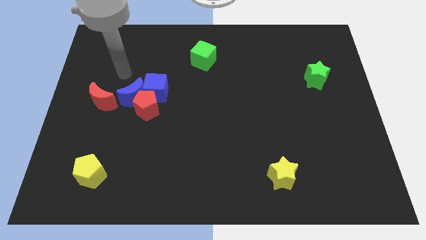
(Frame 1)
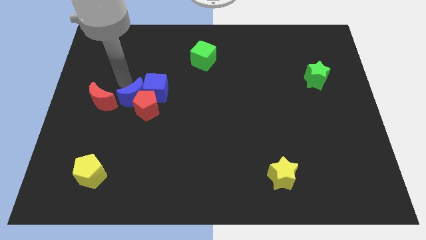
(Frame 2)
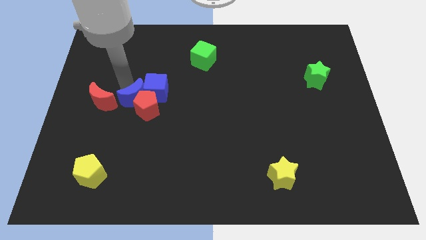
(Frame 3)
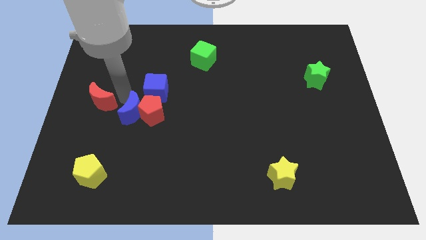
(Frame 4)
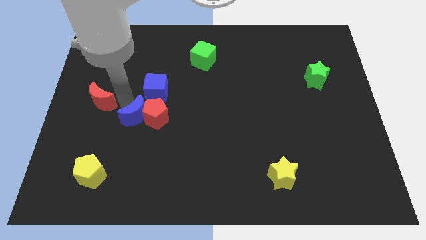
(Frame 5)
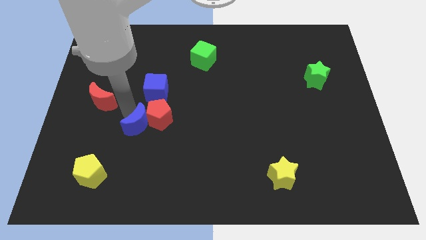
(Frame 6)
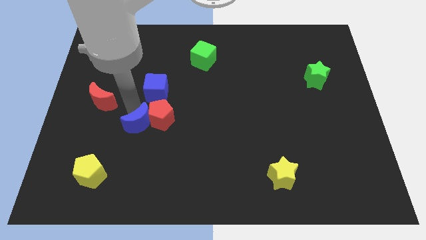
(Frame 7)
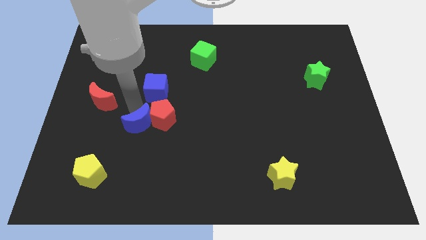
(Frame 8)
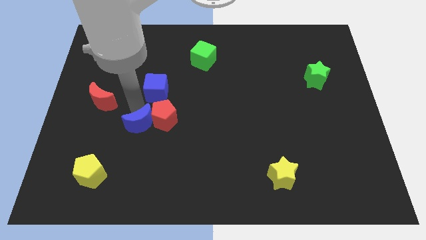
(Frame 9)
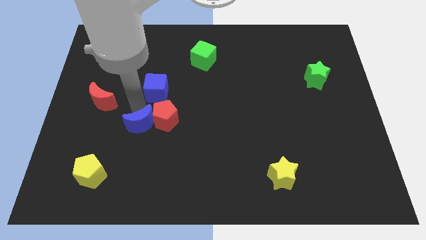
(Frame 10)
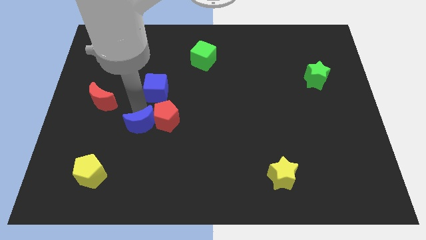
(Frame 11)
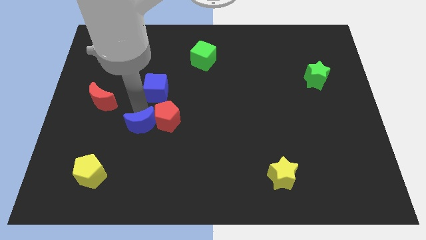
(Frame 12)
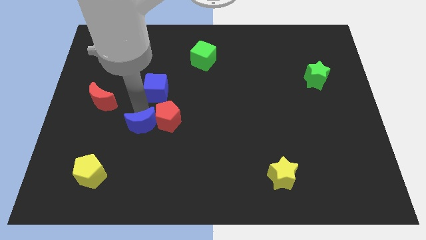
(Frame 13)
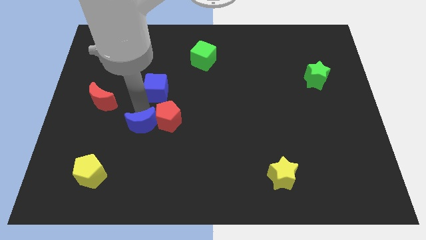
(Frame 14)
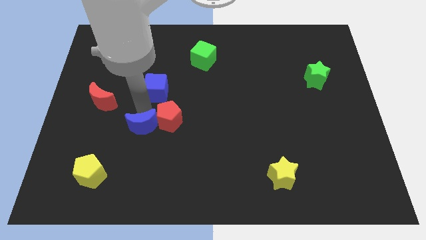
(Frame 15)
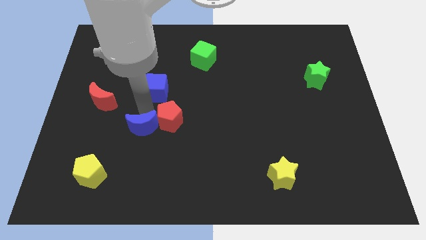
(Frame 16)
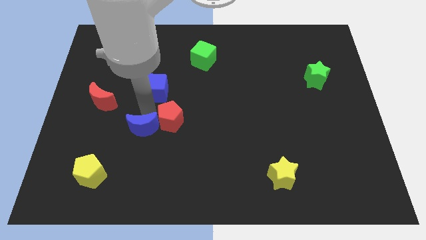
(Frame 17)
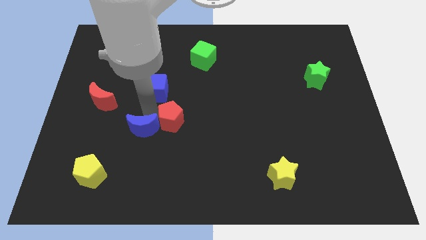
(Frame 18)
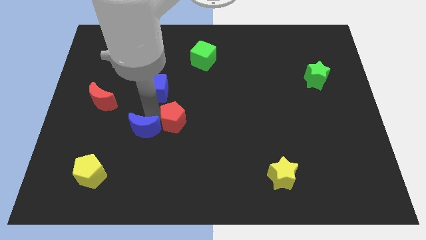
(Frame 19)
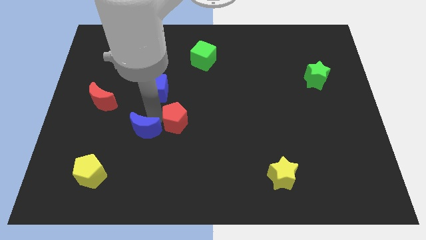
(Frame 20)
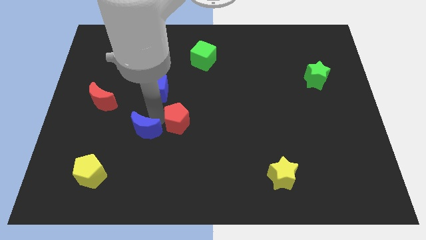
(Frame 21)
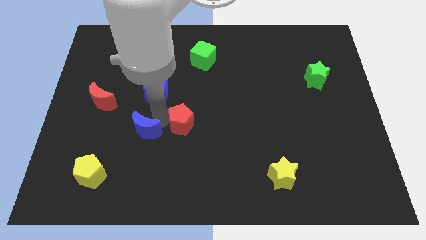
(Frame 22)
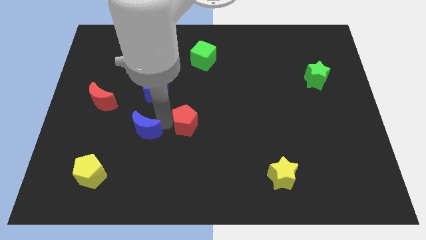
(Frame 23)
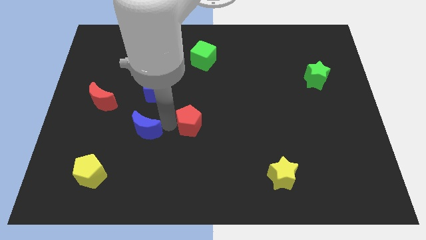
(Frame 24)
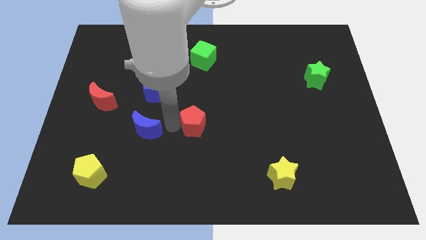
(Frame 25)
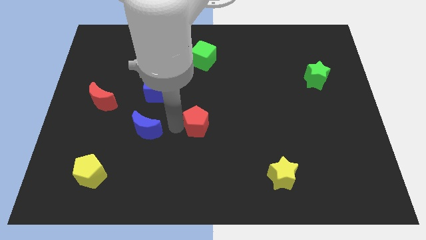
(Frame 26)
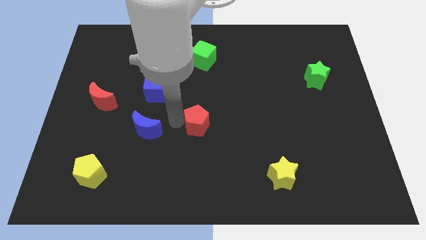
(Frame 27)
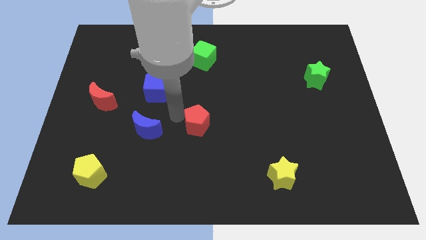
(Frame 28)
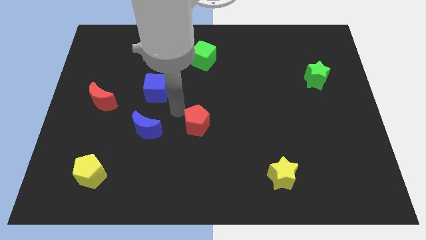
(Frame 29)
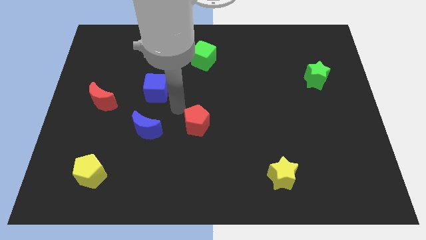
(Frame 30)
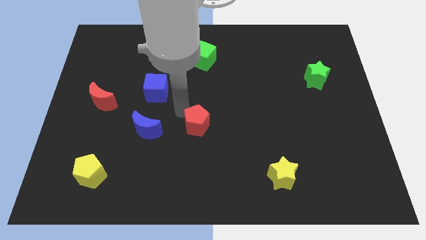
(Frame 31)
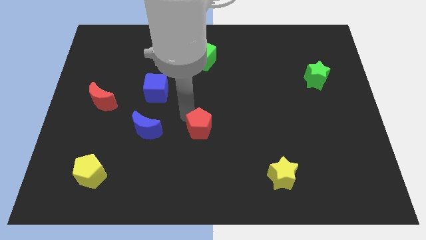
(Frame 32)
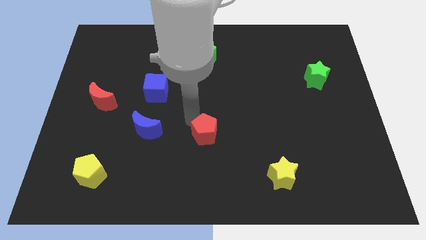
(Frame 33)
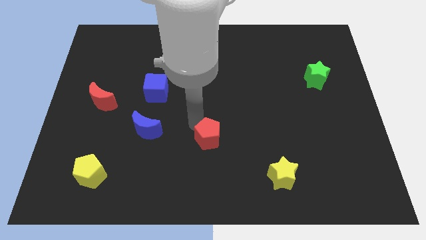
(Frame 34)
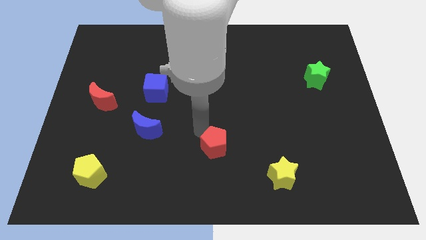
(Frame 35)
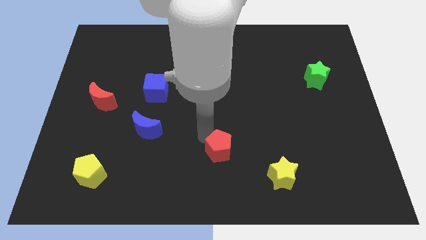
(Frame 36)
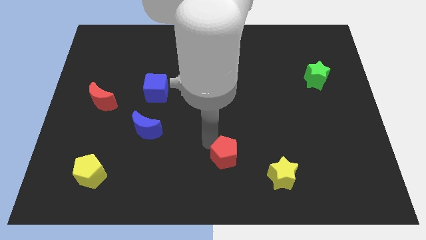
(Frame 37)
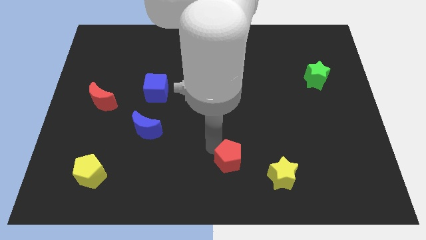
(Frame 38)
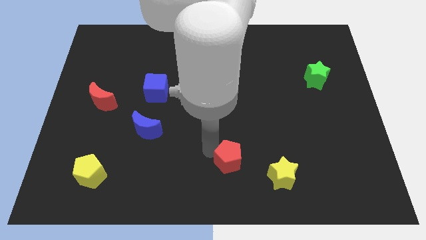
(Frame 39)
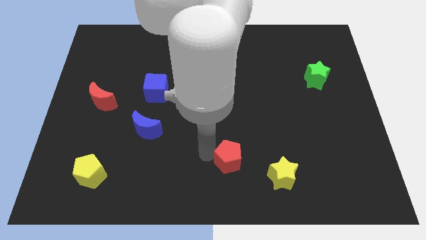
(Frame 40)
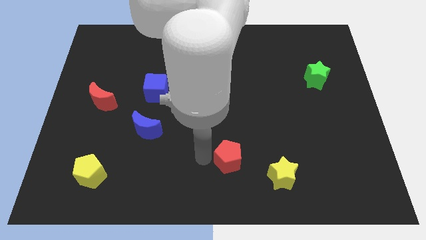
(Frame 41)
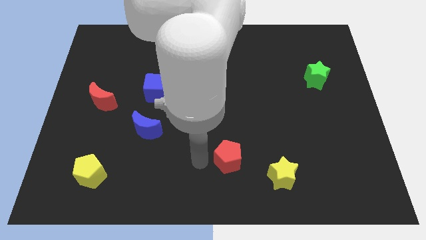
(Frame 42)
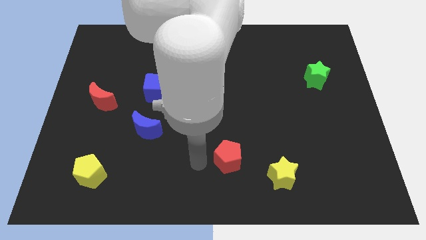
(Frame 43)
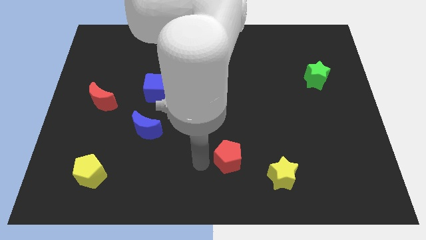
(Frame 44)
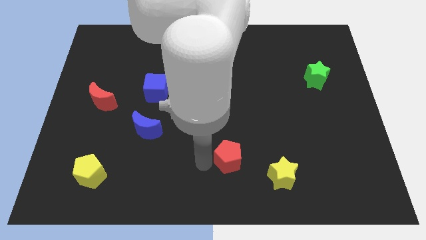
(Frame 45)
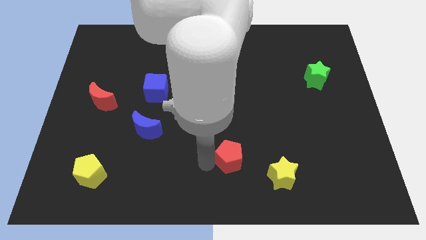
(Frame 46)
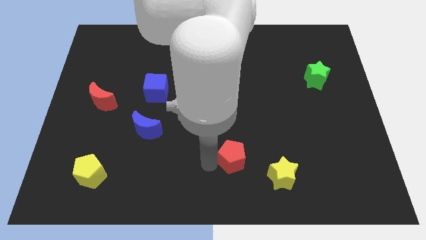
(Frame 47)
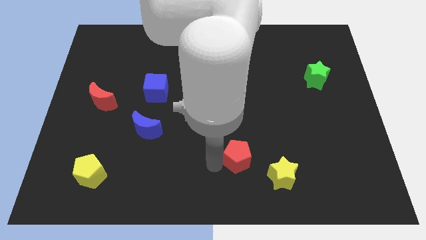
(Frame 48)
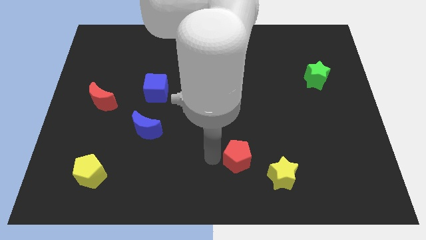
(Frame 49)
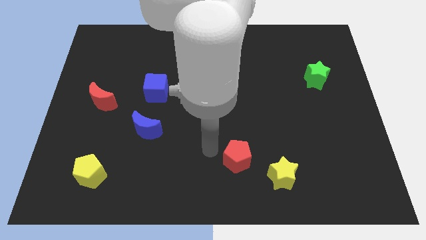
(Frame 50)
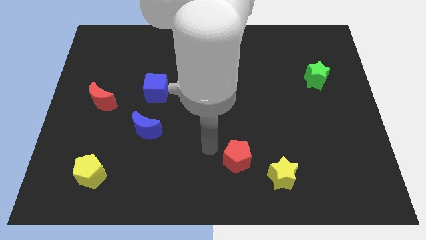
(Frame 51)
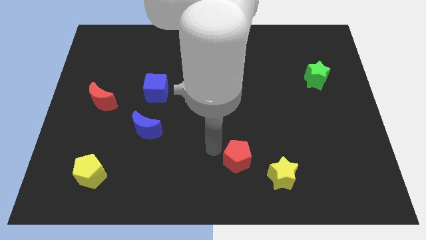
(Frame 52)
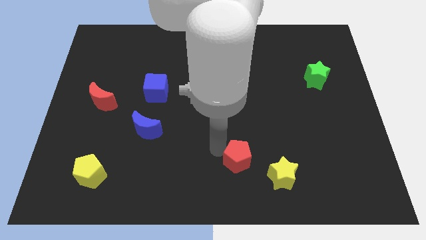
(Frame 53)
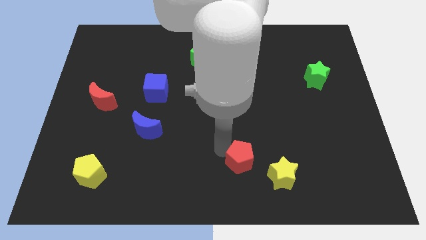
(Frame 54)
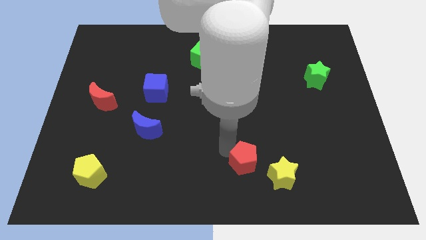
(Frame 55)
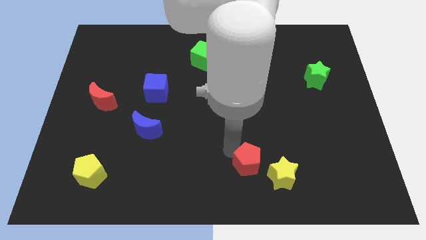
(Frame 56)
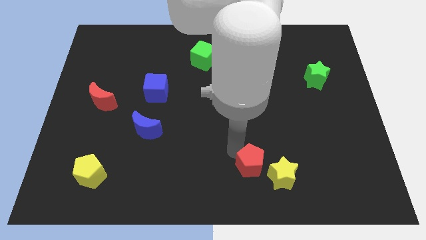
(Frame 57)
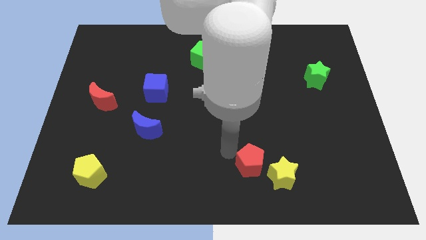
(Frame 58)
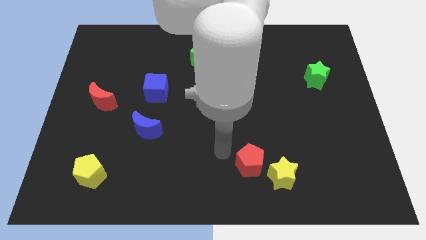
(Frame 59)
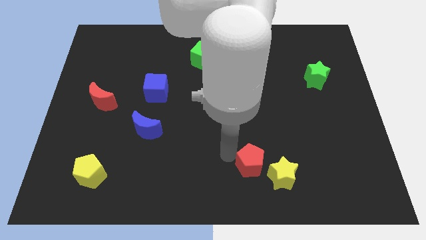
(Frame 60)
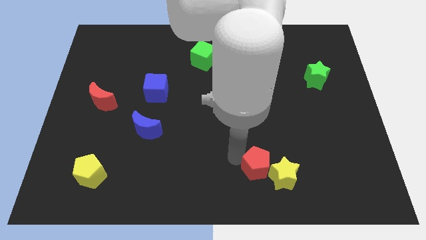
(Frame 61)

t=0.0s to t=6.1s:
move the red pentagon to the yellow star

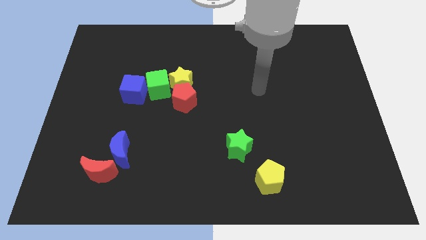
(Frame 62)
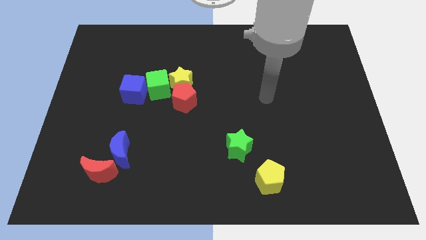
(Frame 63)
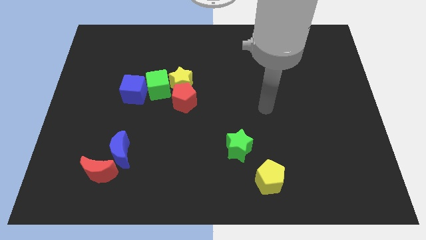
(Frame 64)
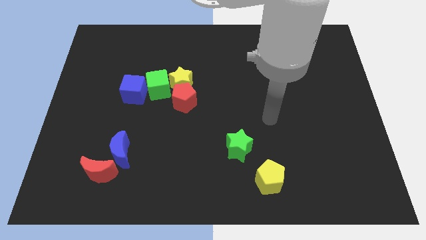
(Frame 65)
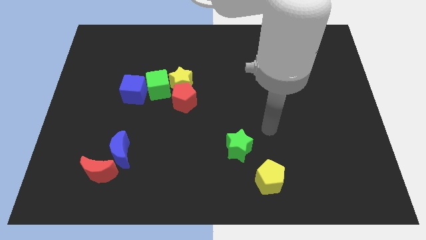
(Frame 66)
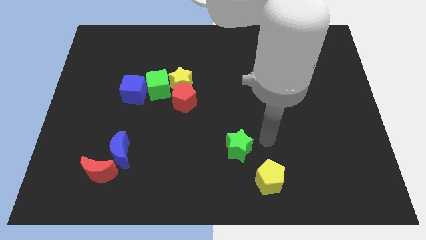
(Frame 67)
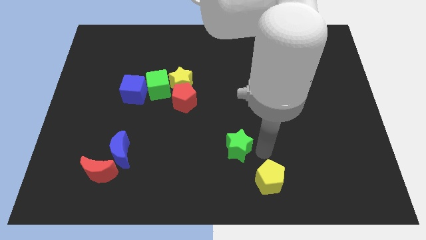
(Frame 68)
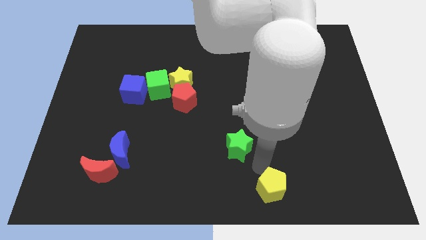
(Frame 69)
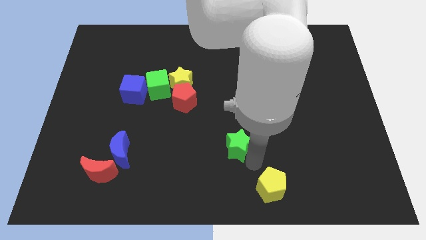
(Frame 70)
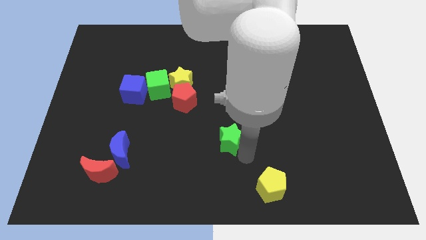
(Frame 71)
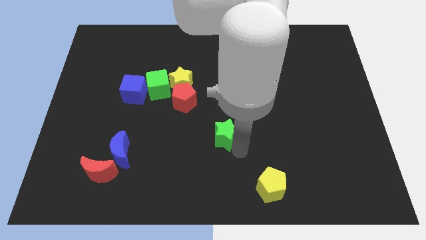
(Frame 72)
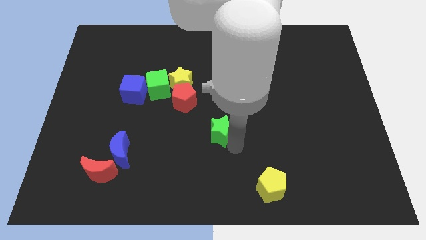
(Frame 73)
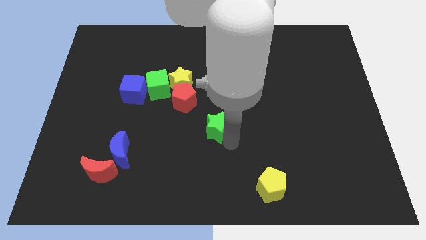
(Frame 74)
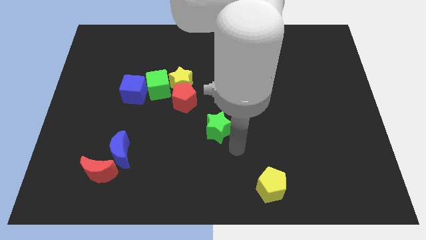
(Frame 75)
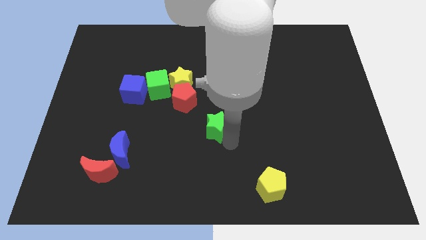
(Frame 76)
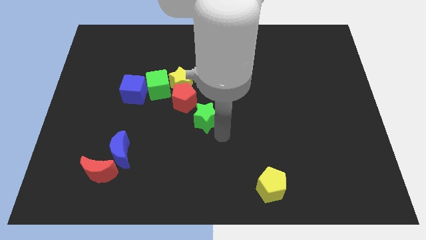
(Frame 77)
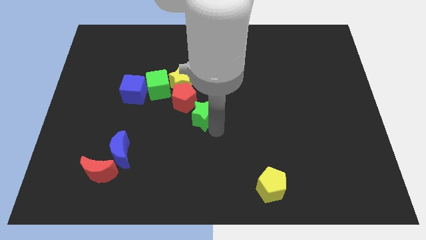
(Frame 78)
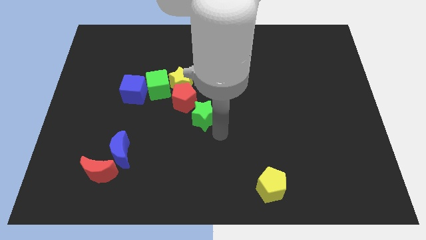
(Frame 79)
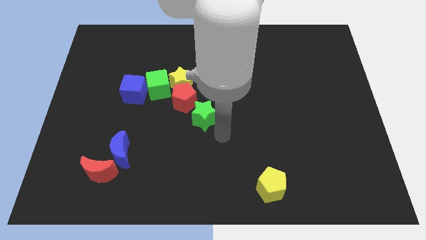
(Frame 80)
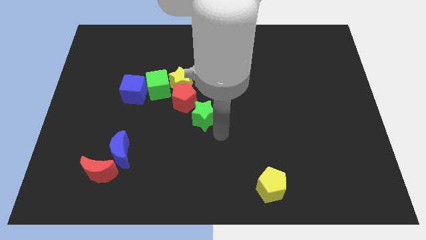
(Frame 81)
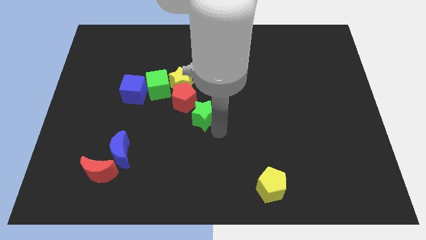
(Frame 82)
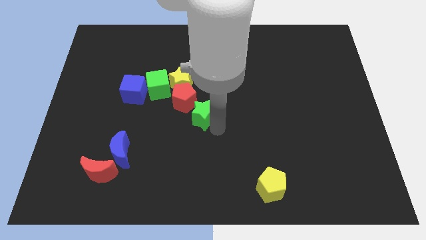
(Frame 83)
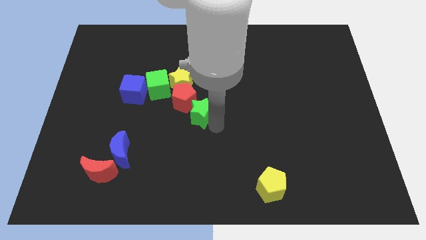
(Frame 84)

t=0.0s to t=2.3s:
push the green star to the red pentagon
